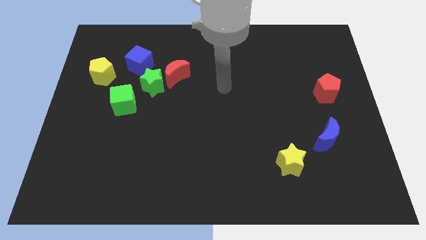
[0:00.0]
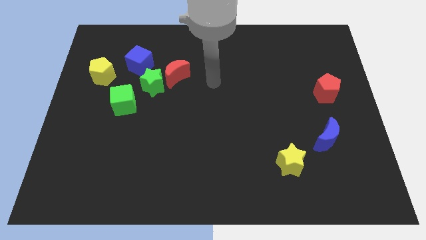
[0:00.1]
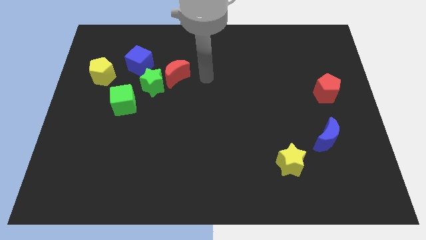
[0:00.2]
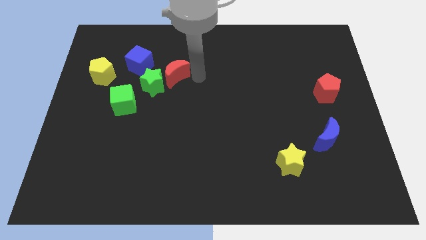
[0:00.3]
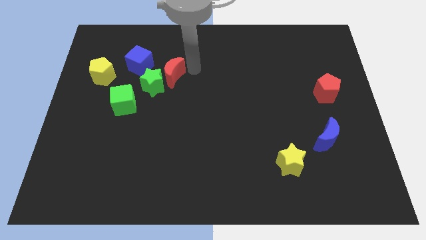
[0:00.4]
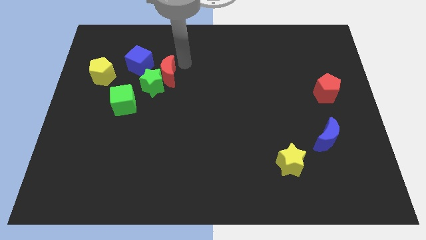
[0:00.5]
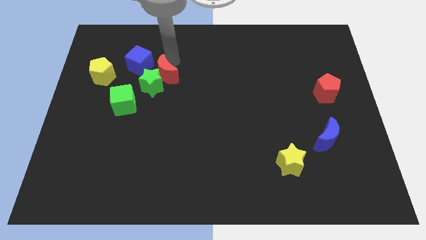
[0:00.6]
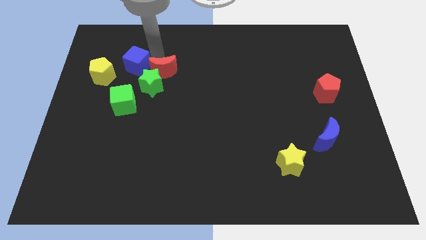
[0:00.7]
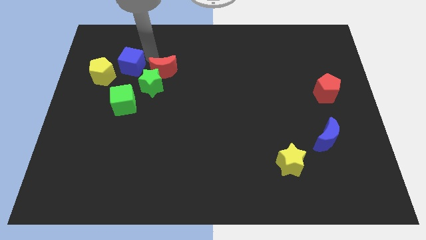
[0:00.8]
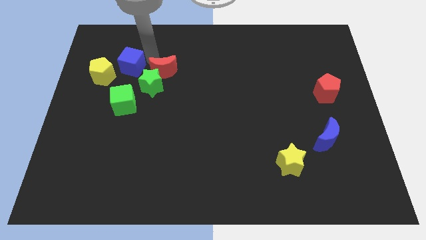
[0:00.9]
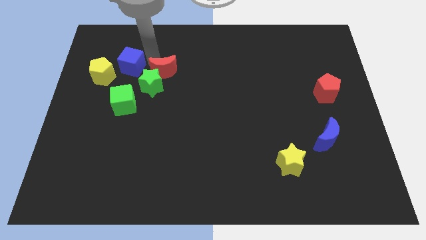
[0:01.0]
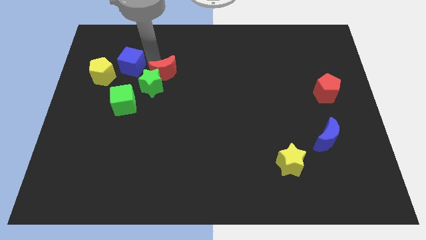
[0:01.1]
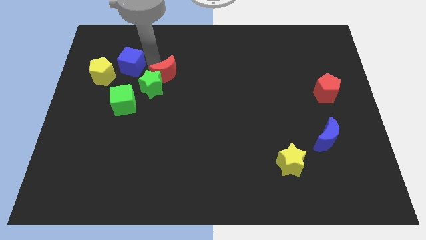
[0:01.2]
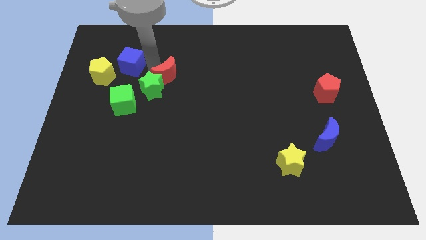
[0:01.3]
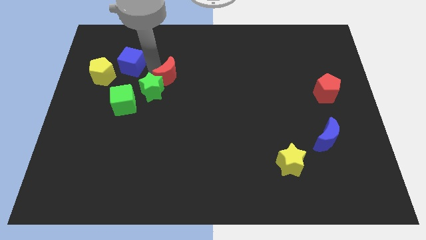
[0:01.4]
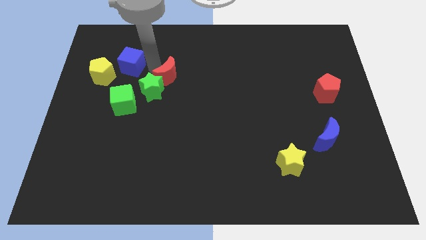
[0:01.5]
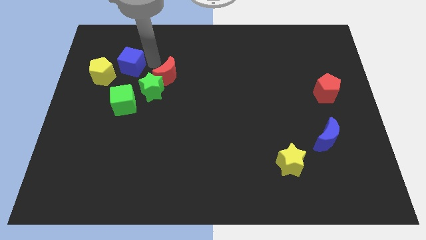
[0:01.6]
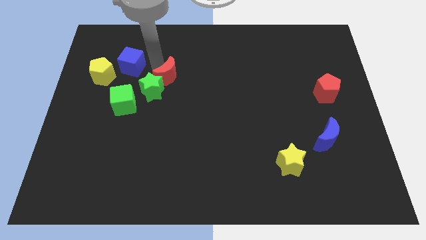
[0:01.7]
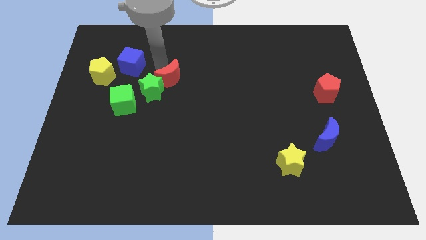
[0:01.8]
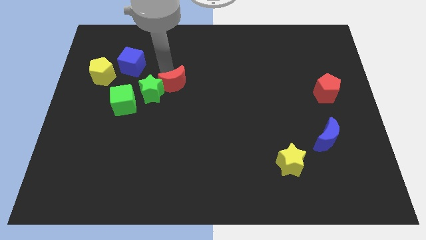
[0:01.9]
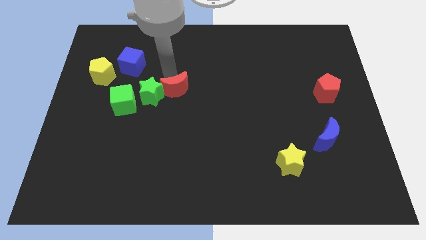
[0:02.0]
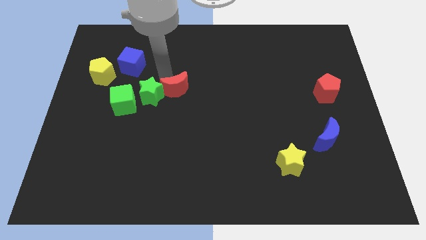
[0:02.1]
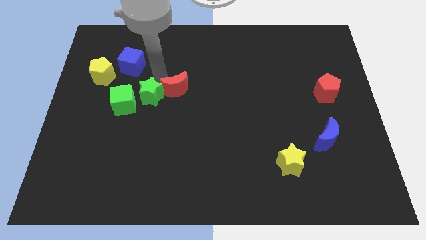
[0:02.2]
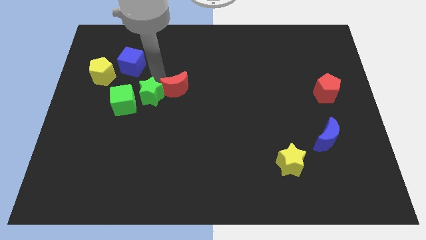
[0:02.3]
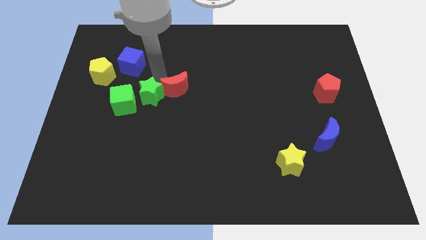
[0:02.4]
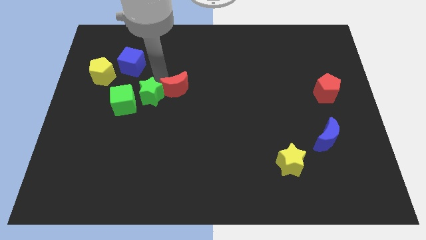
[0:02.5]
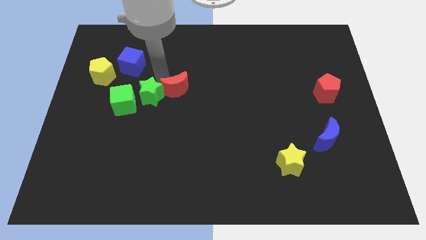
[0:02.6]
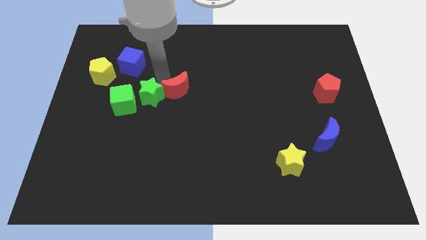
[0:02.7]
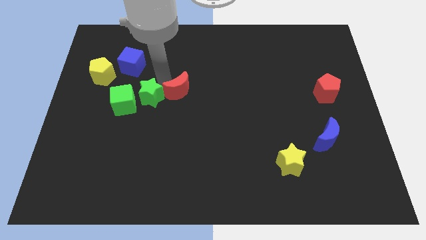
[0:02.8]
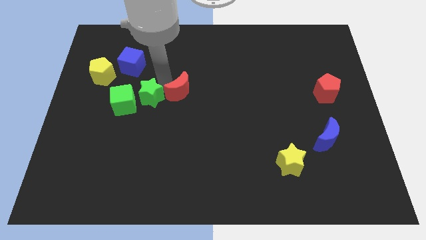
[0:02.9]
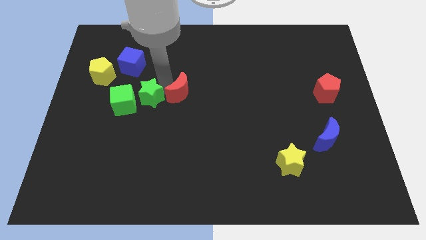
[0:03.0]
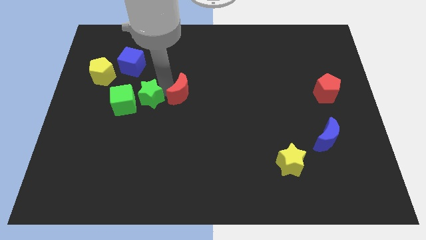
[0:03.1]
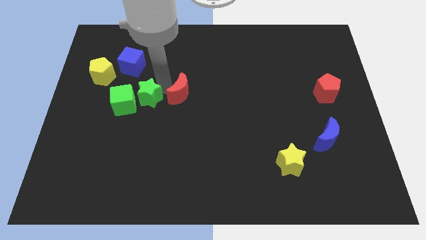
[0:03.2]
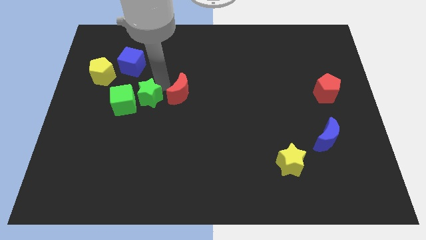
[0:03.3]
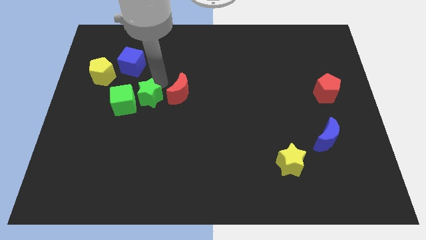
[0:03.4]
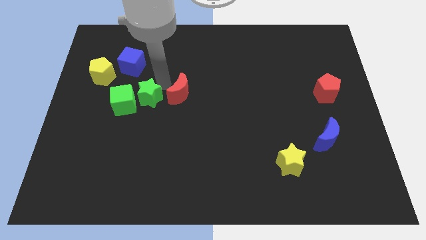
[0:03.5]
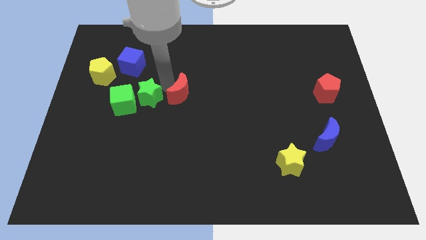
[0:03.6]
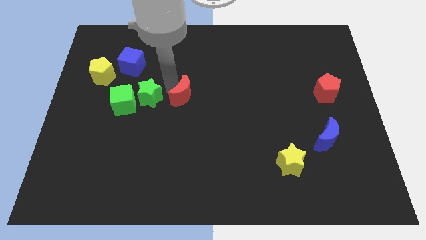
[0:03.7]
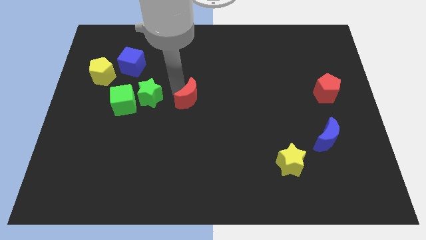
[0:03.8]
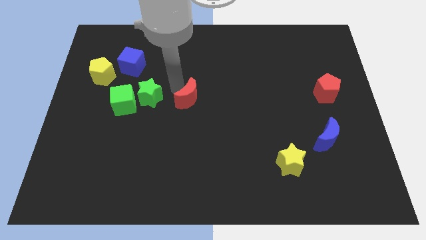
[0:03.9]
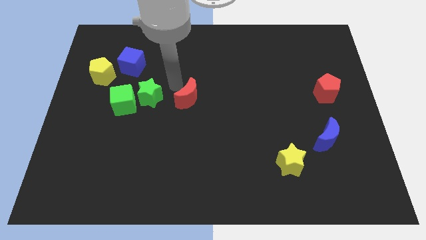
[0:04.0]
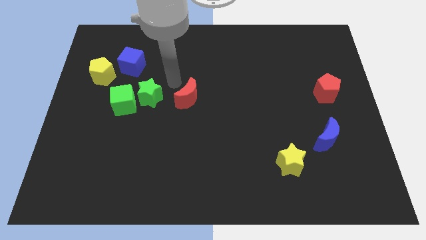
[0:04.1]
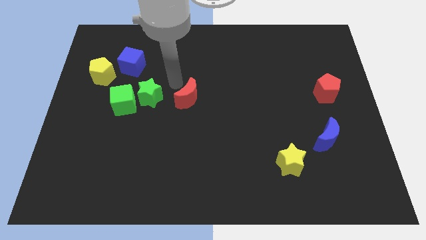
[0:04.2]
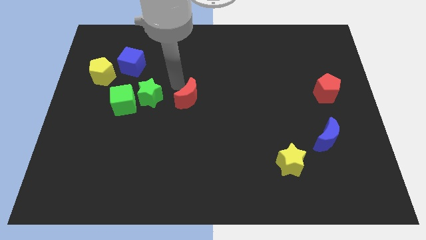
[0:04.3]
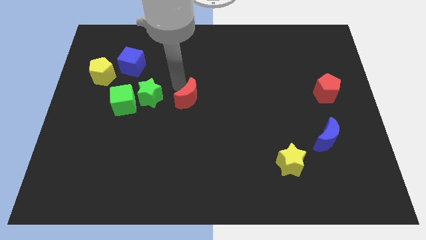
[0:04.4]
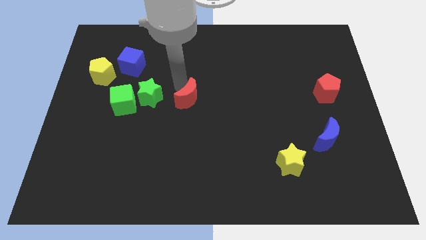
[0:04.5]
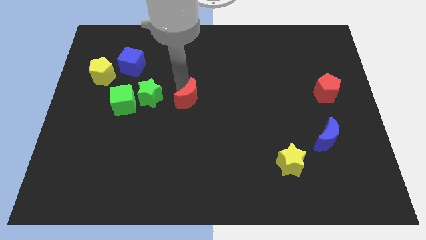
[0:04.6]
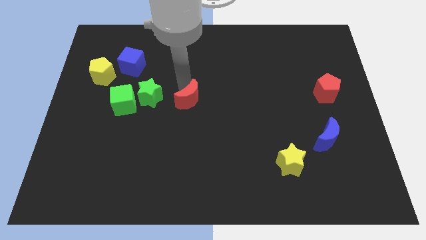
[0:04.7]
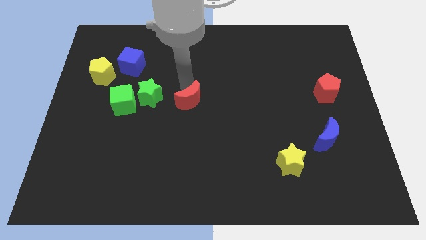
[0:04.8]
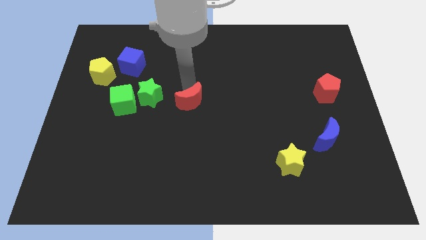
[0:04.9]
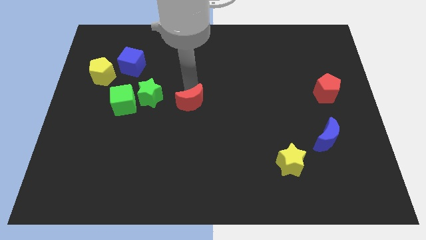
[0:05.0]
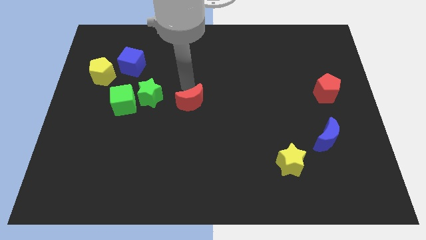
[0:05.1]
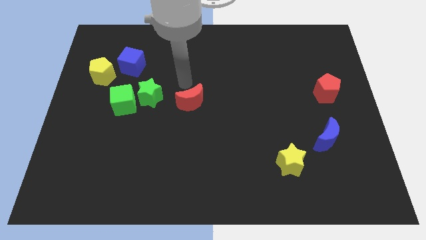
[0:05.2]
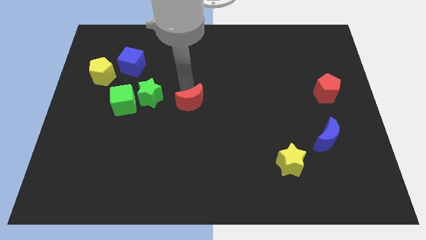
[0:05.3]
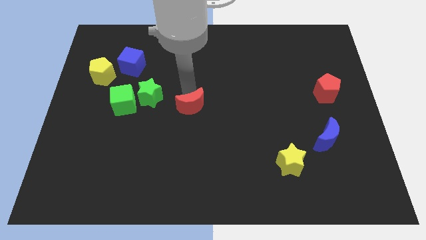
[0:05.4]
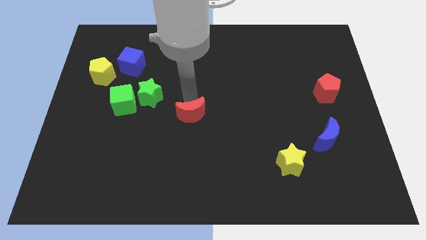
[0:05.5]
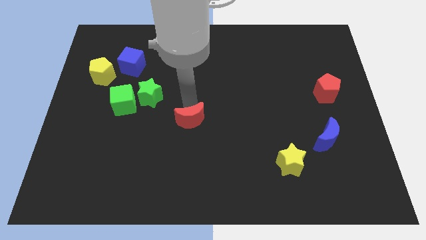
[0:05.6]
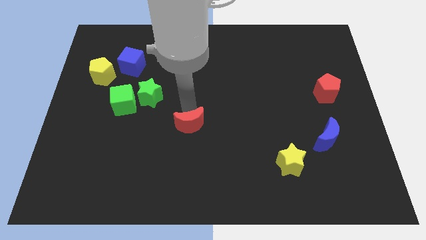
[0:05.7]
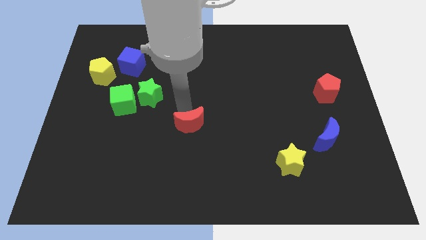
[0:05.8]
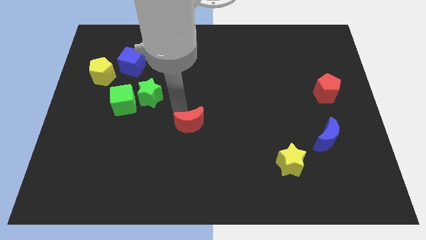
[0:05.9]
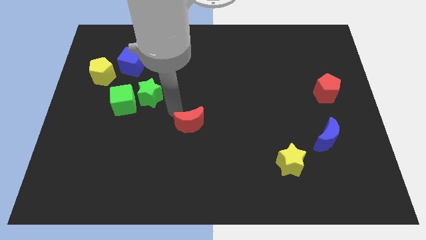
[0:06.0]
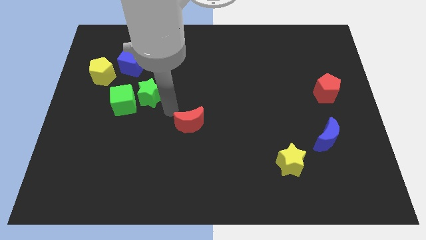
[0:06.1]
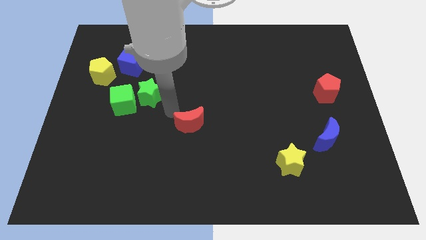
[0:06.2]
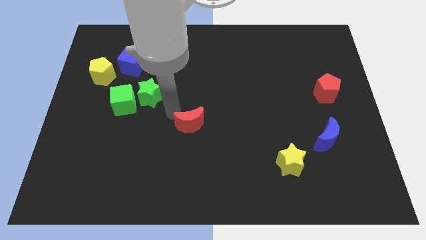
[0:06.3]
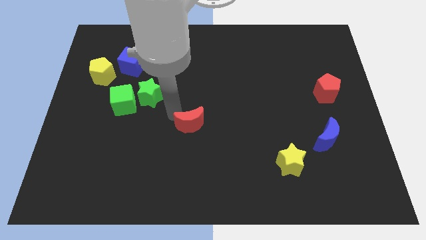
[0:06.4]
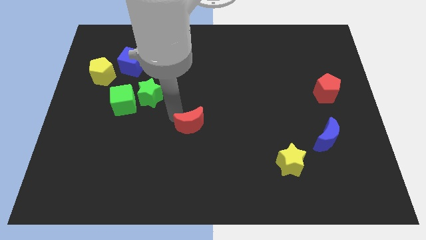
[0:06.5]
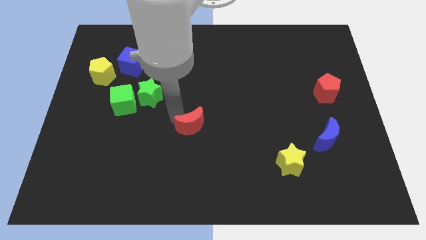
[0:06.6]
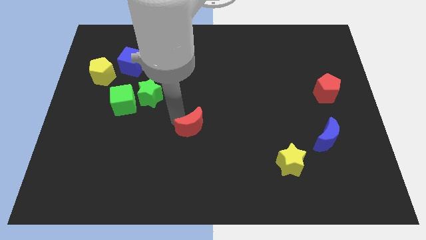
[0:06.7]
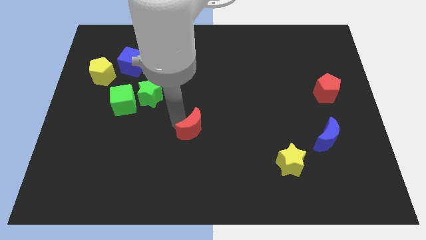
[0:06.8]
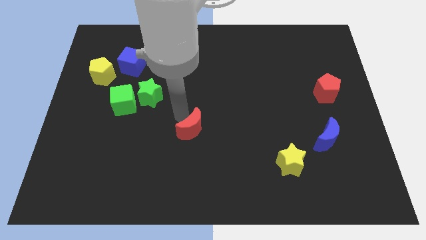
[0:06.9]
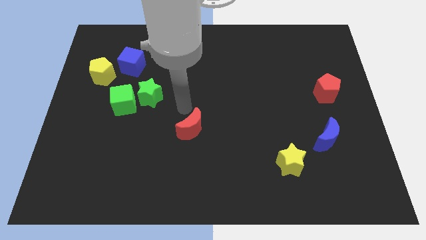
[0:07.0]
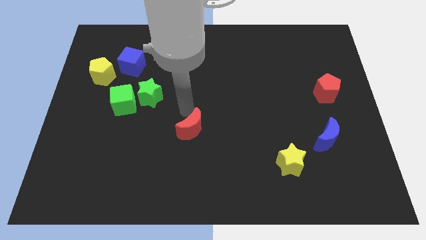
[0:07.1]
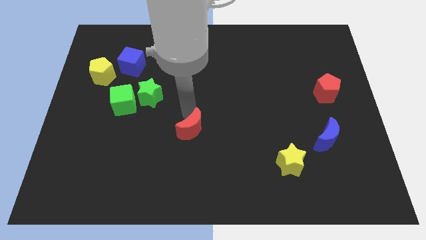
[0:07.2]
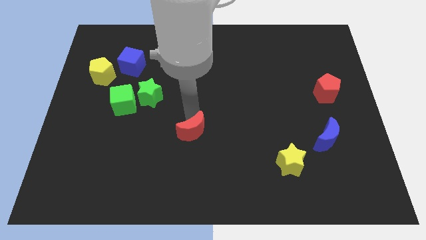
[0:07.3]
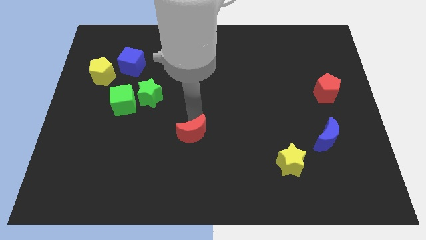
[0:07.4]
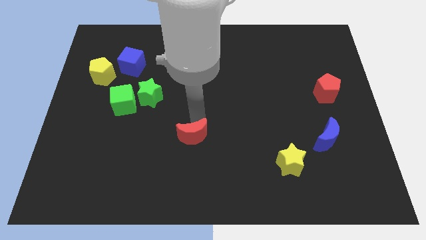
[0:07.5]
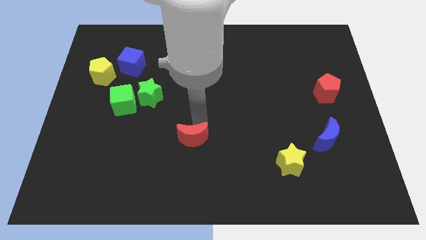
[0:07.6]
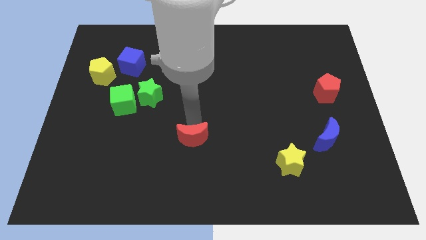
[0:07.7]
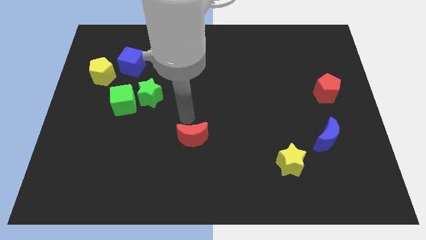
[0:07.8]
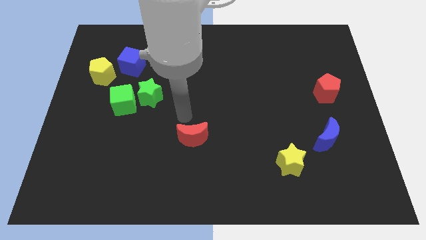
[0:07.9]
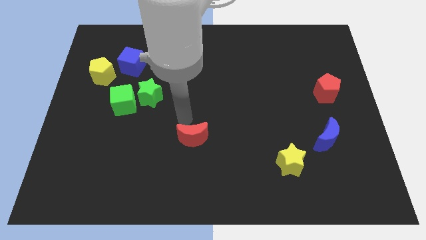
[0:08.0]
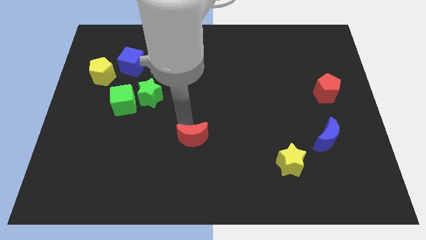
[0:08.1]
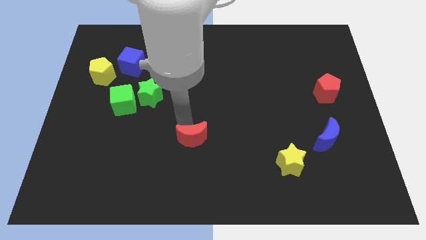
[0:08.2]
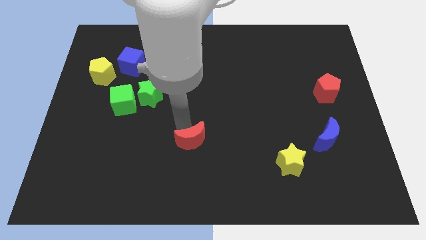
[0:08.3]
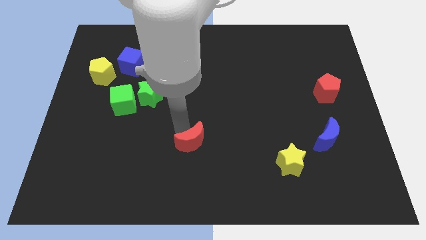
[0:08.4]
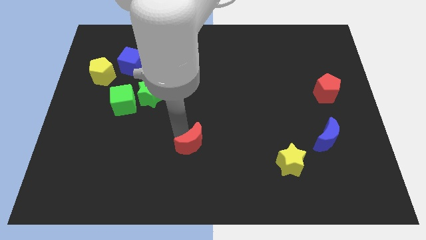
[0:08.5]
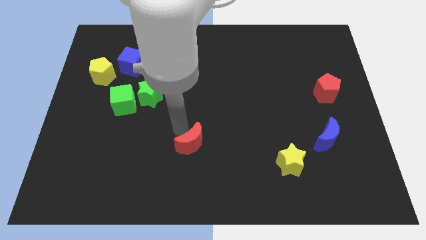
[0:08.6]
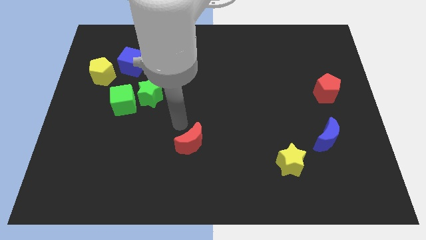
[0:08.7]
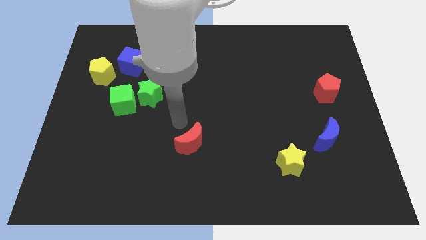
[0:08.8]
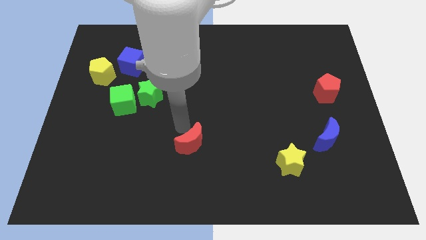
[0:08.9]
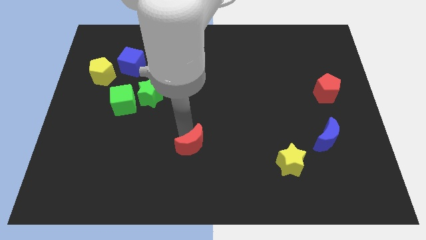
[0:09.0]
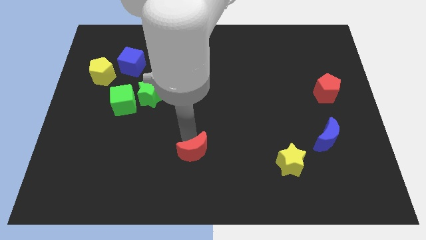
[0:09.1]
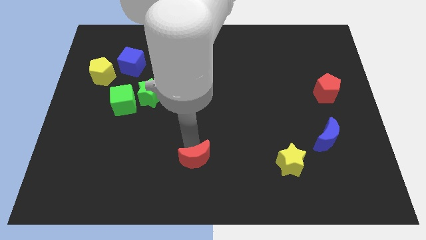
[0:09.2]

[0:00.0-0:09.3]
put the red moon to the bottom side
